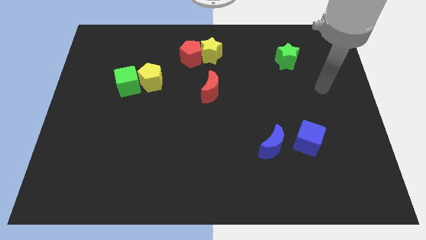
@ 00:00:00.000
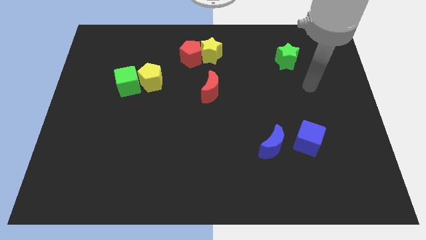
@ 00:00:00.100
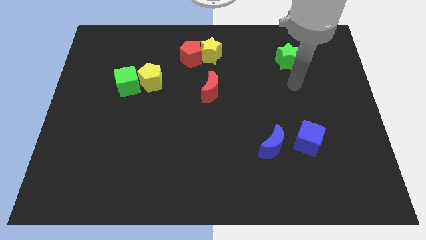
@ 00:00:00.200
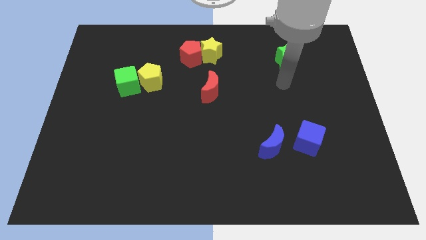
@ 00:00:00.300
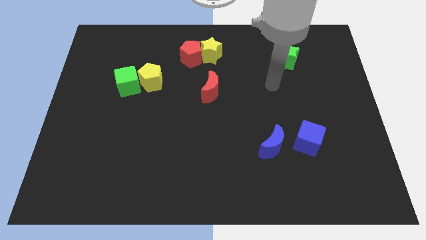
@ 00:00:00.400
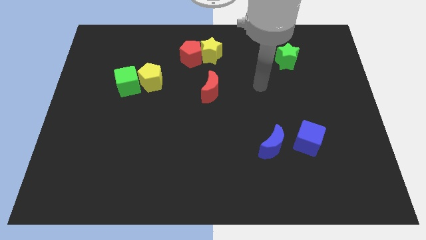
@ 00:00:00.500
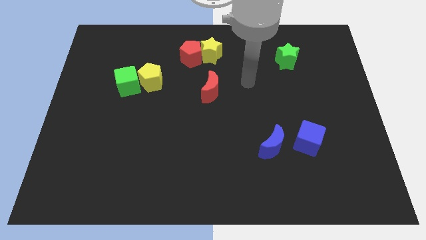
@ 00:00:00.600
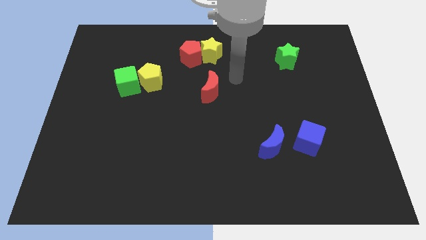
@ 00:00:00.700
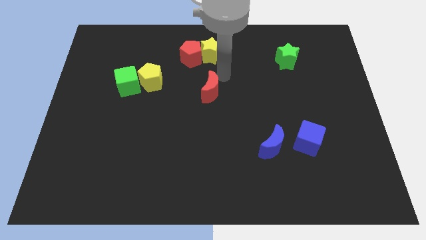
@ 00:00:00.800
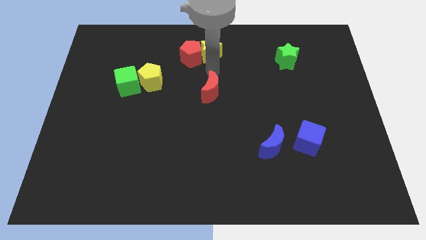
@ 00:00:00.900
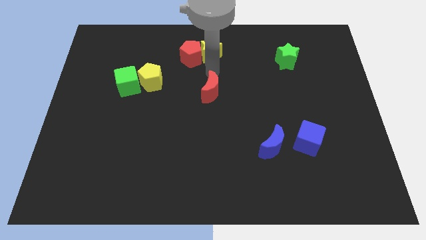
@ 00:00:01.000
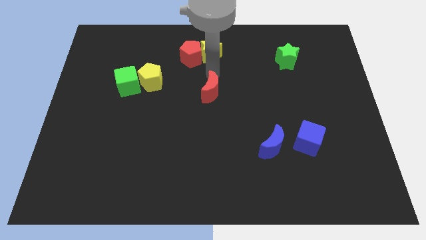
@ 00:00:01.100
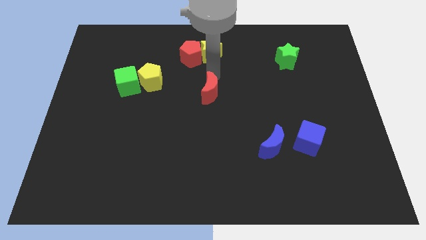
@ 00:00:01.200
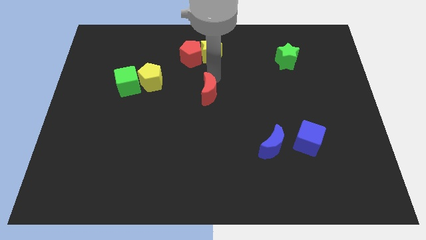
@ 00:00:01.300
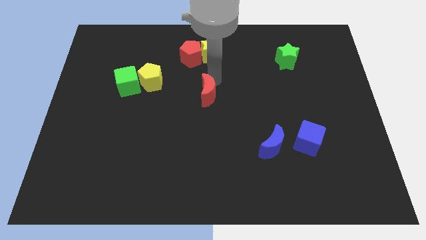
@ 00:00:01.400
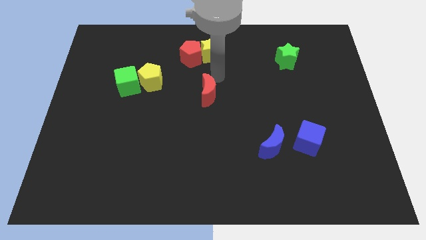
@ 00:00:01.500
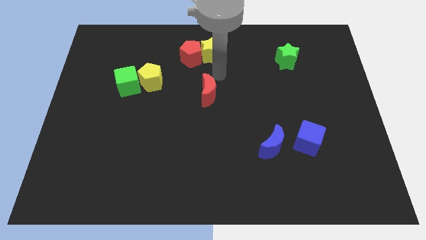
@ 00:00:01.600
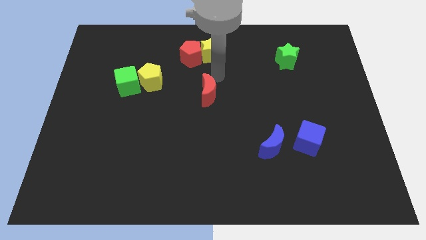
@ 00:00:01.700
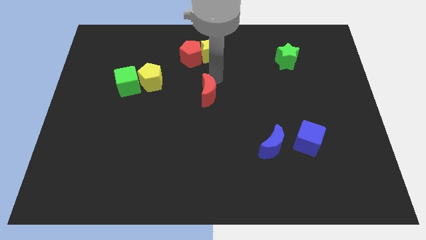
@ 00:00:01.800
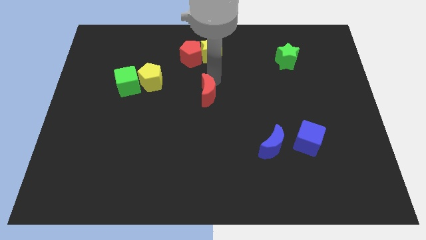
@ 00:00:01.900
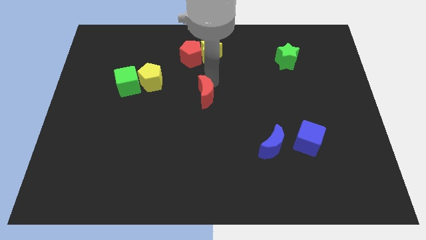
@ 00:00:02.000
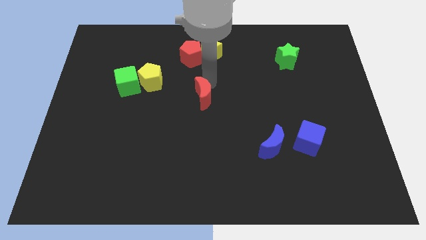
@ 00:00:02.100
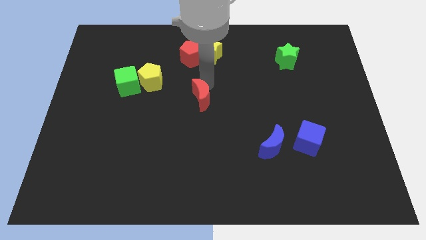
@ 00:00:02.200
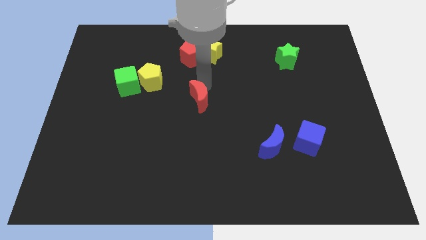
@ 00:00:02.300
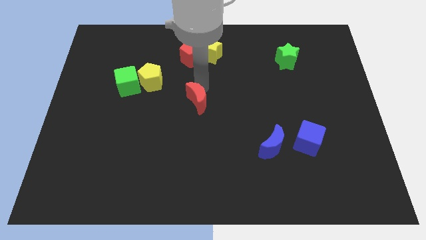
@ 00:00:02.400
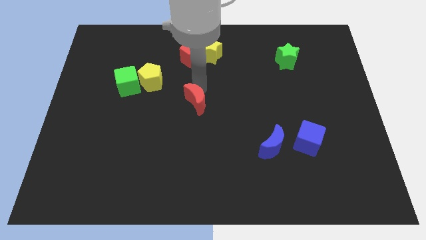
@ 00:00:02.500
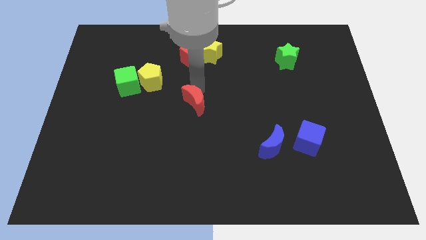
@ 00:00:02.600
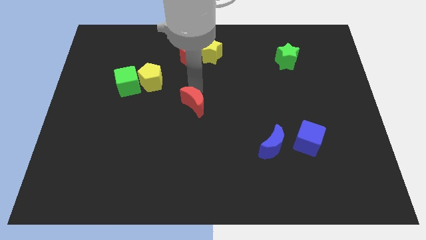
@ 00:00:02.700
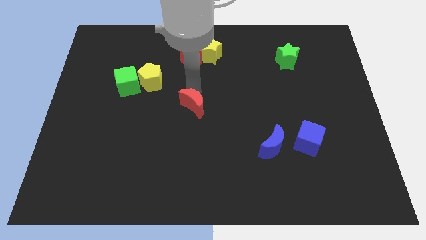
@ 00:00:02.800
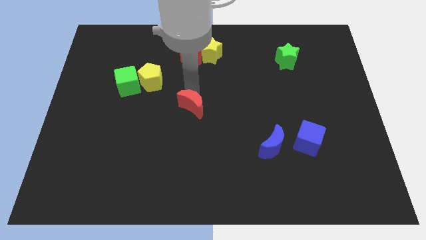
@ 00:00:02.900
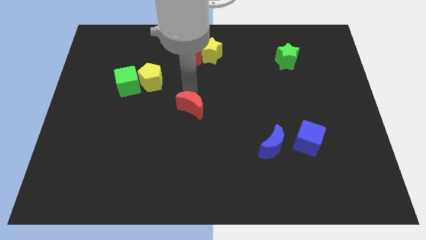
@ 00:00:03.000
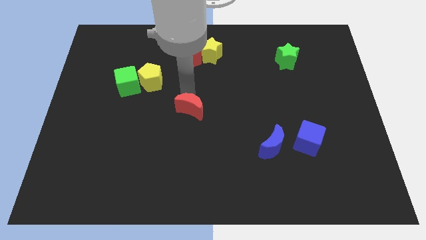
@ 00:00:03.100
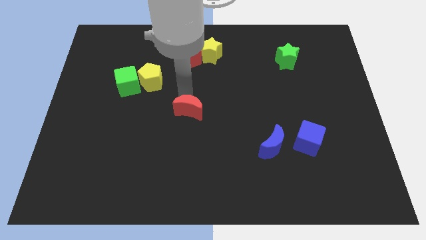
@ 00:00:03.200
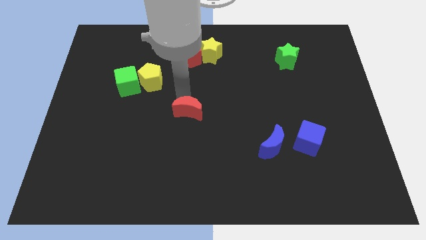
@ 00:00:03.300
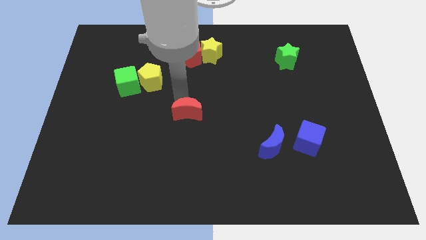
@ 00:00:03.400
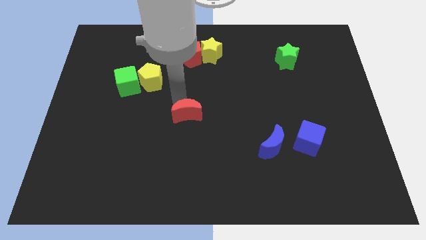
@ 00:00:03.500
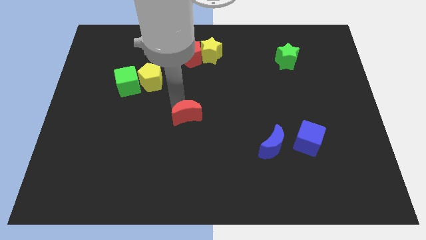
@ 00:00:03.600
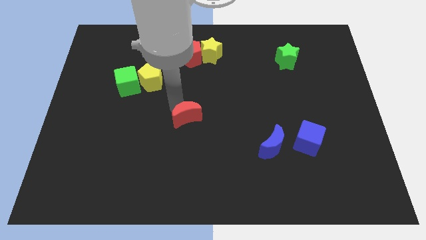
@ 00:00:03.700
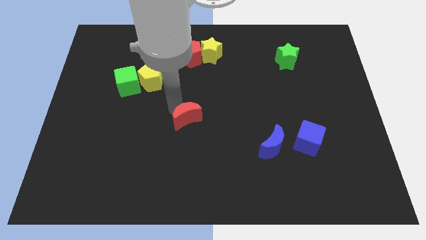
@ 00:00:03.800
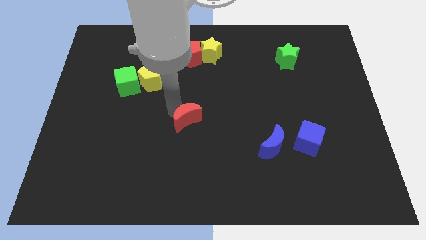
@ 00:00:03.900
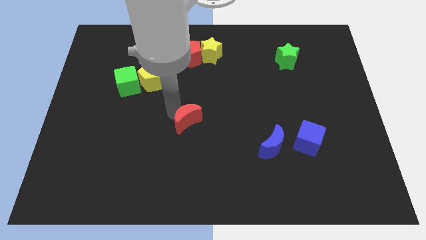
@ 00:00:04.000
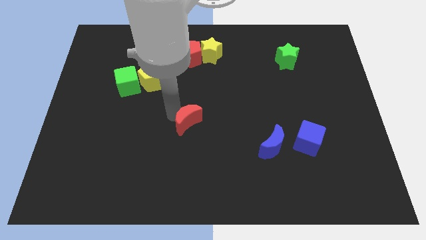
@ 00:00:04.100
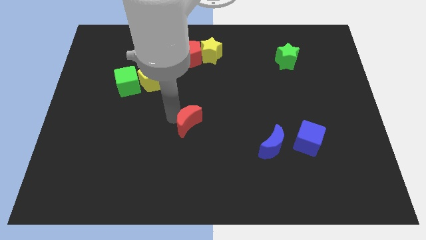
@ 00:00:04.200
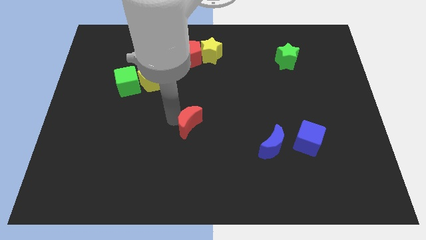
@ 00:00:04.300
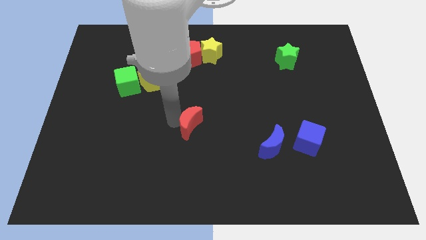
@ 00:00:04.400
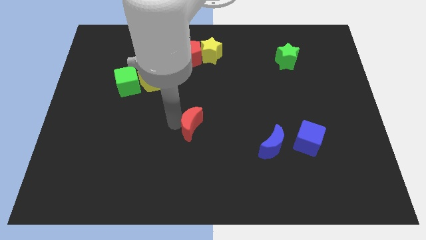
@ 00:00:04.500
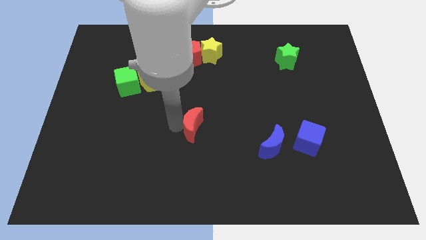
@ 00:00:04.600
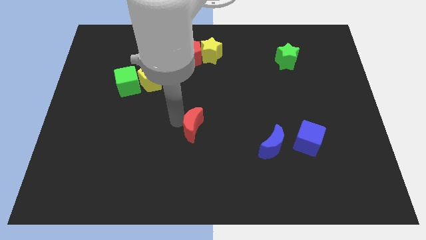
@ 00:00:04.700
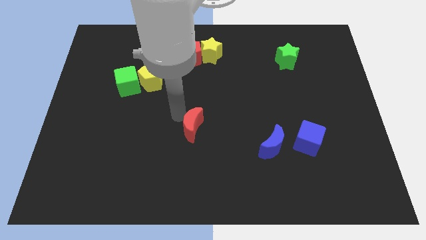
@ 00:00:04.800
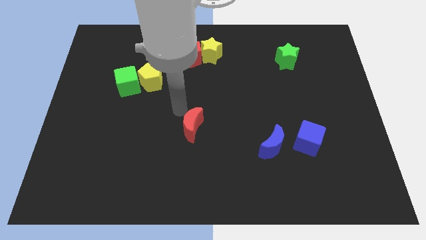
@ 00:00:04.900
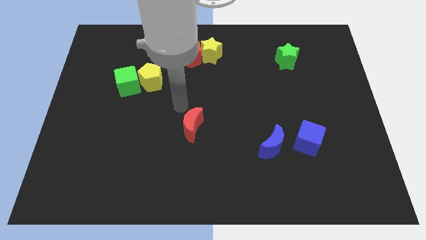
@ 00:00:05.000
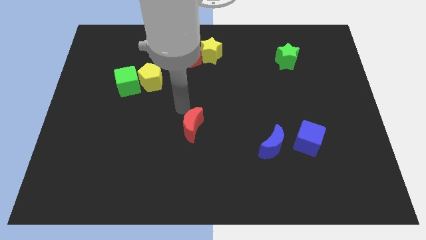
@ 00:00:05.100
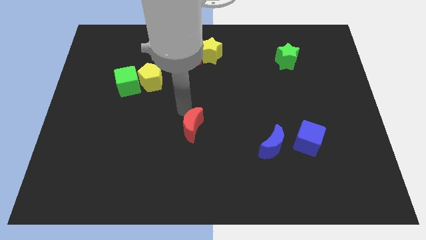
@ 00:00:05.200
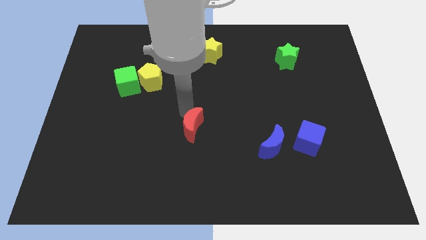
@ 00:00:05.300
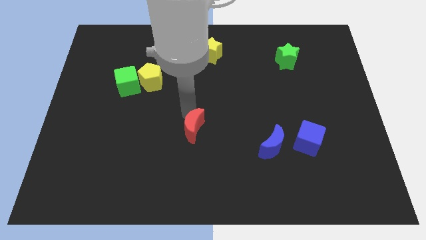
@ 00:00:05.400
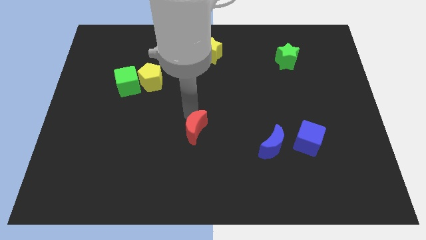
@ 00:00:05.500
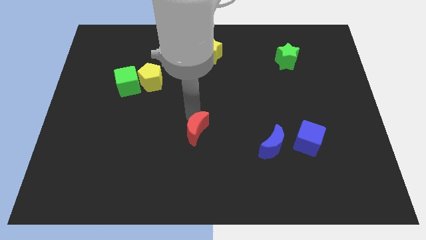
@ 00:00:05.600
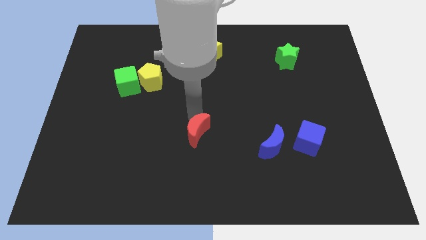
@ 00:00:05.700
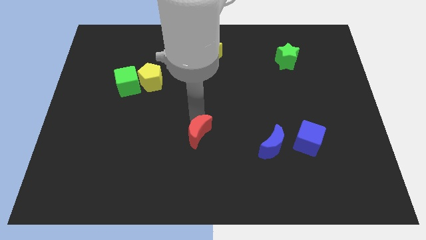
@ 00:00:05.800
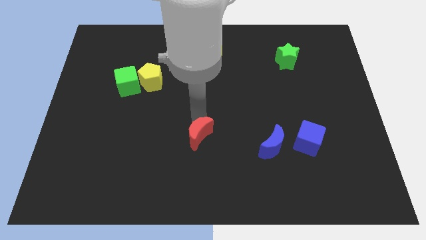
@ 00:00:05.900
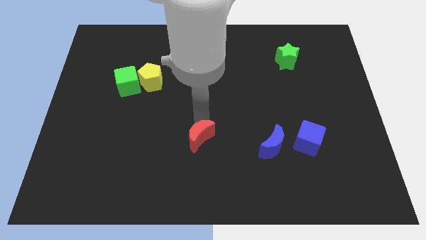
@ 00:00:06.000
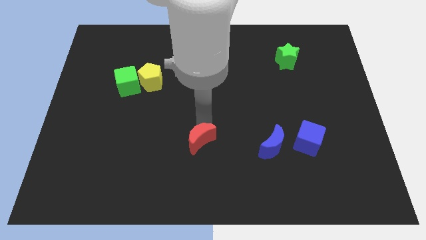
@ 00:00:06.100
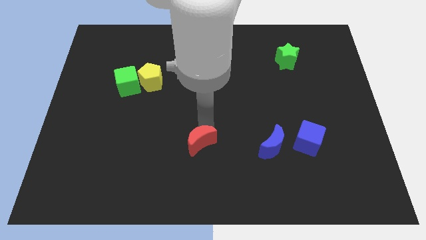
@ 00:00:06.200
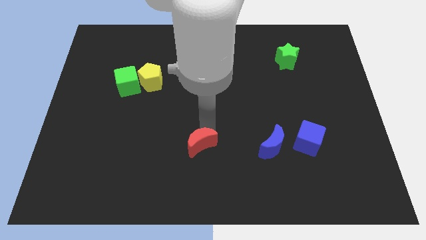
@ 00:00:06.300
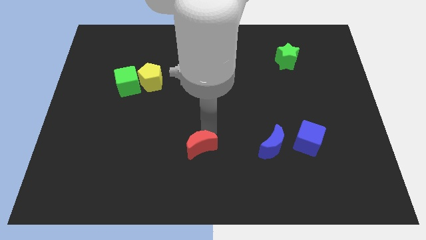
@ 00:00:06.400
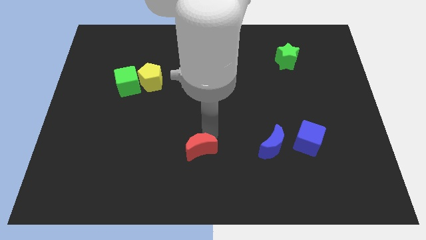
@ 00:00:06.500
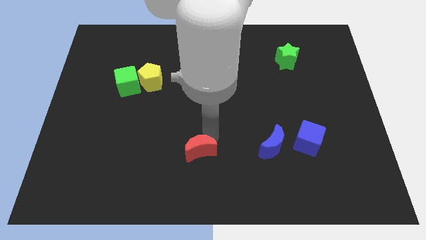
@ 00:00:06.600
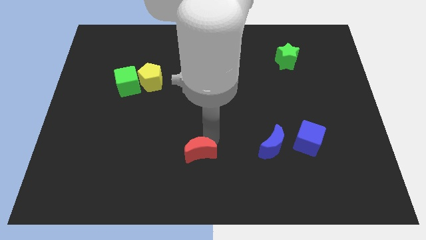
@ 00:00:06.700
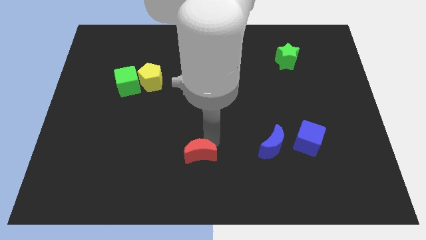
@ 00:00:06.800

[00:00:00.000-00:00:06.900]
slide the red moon to the bottom
